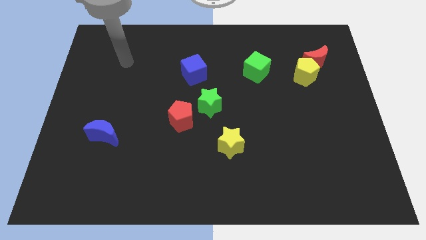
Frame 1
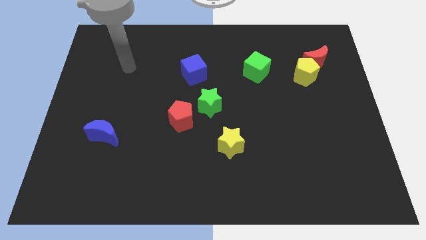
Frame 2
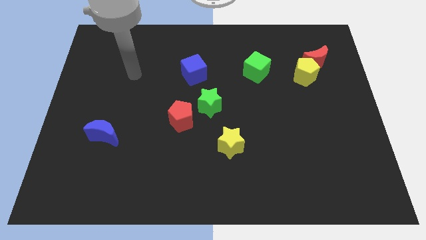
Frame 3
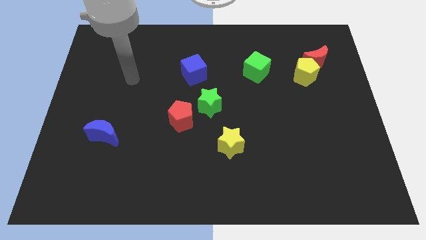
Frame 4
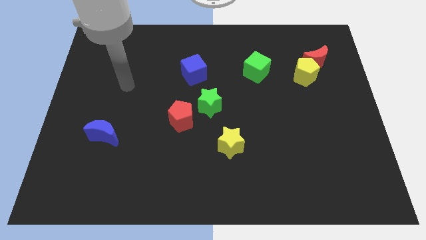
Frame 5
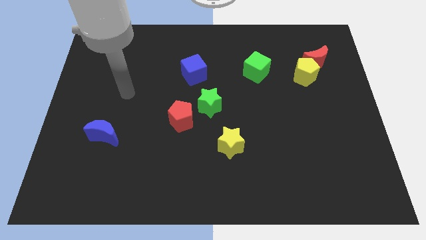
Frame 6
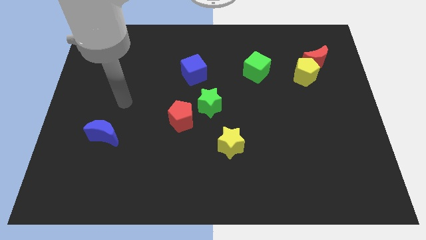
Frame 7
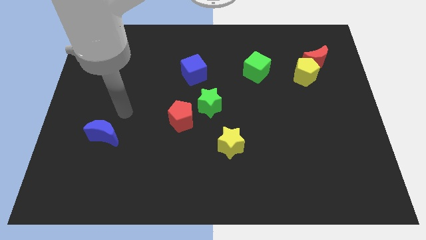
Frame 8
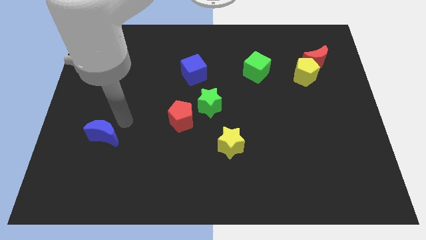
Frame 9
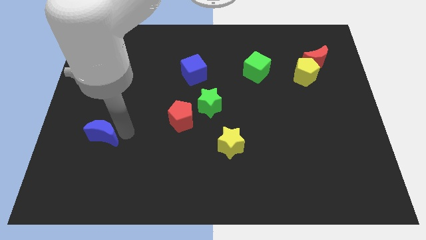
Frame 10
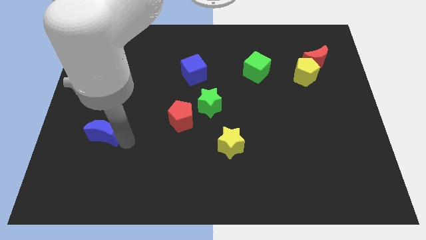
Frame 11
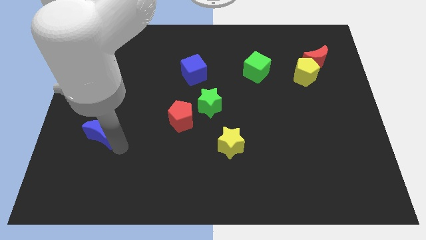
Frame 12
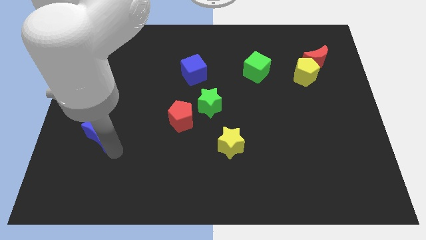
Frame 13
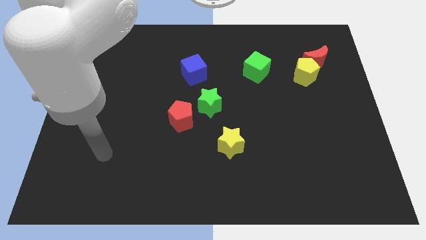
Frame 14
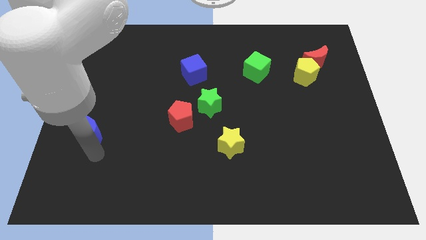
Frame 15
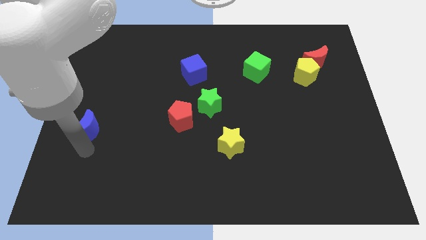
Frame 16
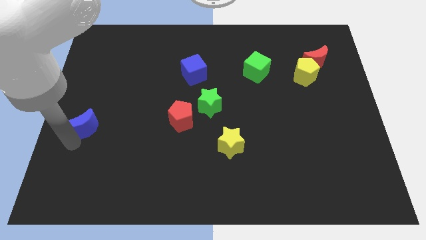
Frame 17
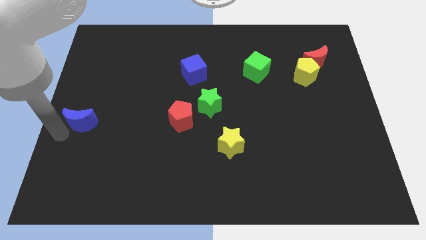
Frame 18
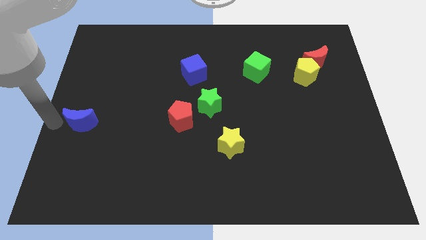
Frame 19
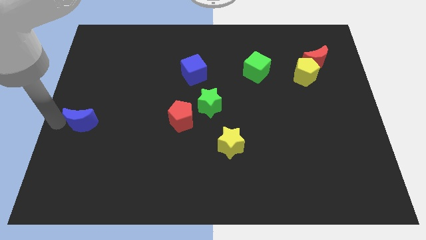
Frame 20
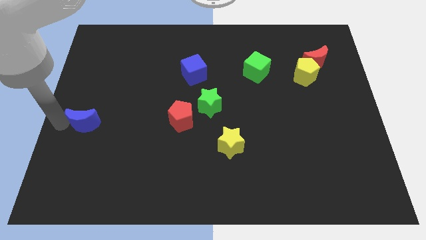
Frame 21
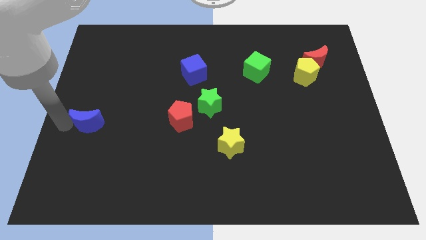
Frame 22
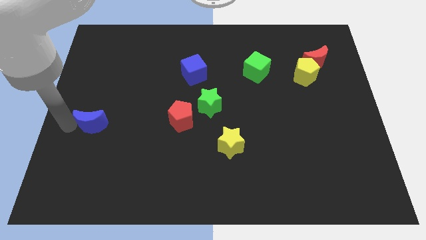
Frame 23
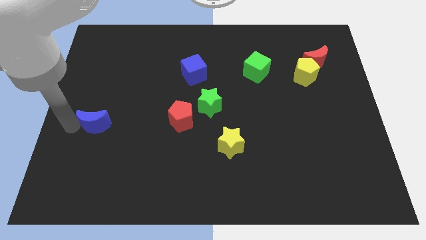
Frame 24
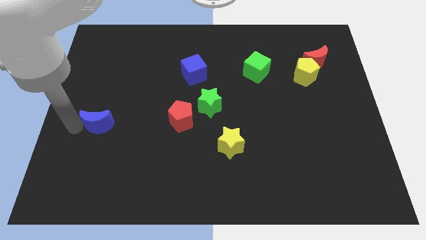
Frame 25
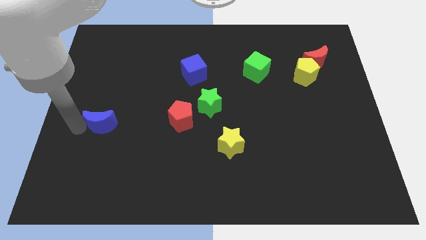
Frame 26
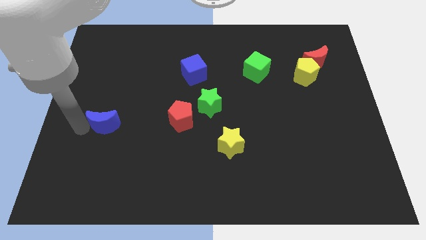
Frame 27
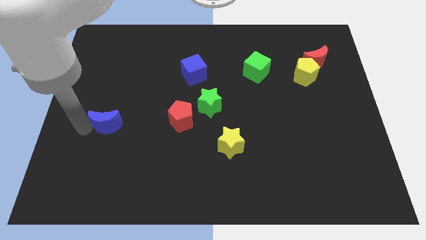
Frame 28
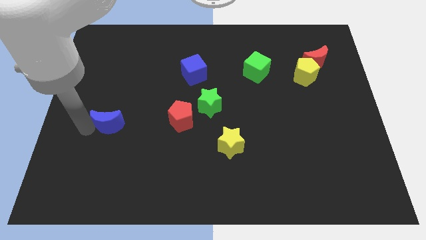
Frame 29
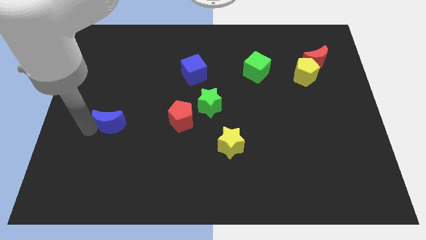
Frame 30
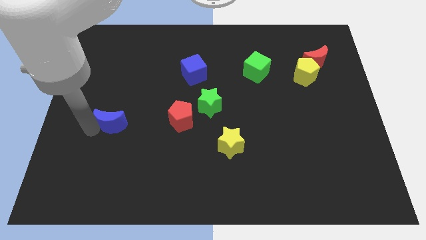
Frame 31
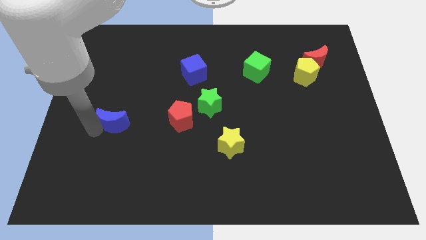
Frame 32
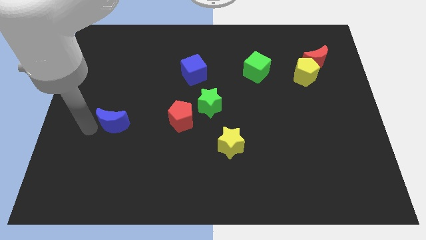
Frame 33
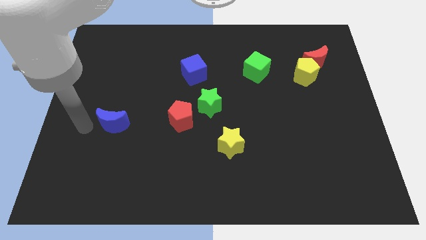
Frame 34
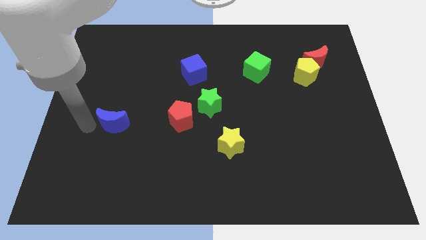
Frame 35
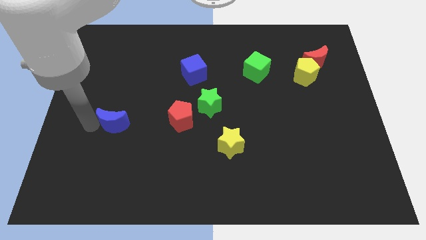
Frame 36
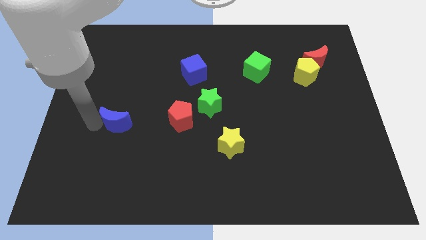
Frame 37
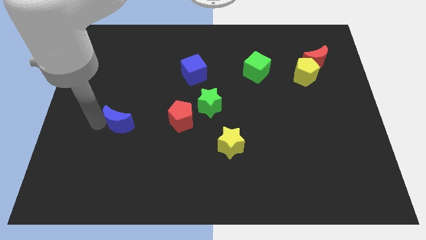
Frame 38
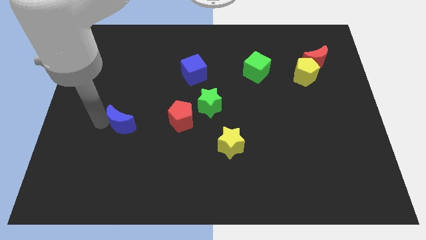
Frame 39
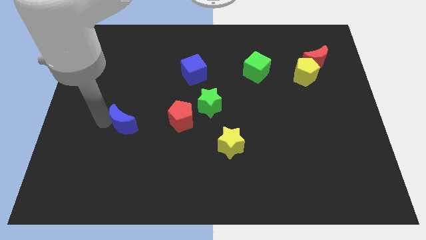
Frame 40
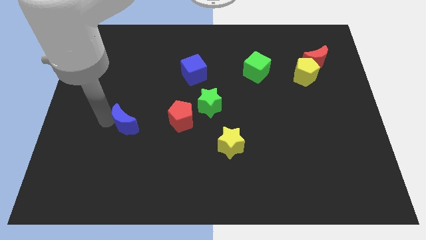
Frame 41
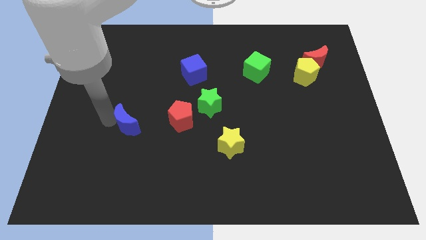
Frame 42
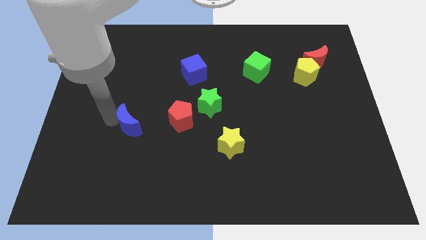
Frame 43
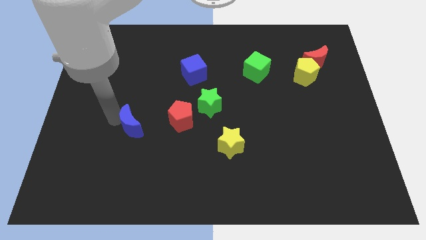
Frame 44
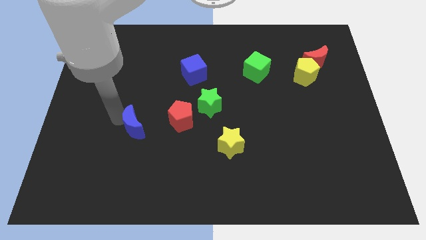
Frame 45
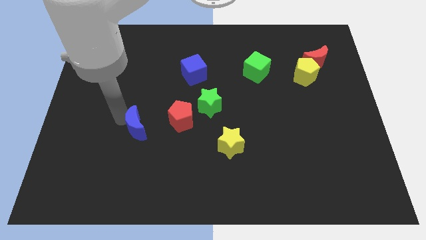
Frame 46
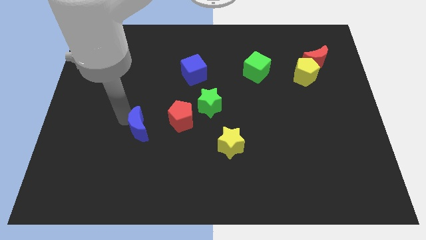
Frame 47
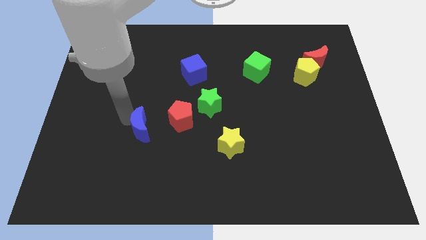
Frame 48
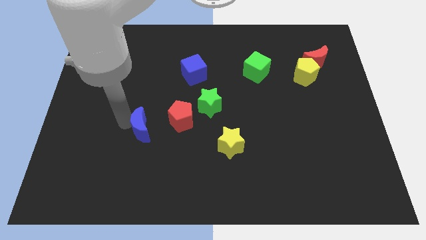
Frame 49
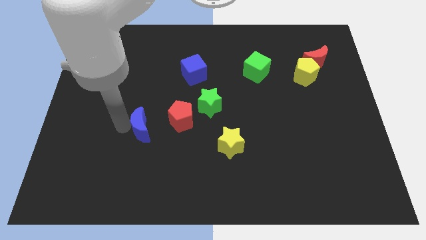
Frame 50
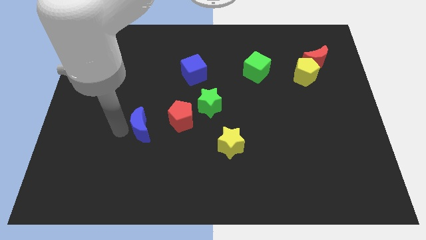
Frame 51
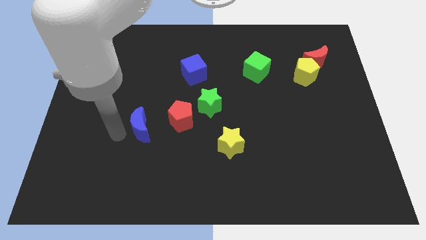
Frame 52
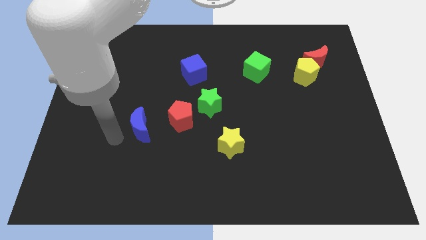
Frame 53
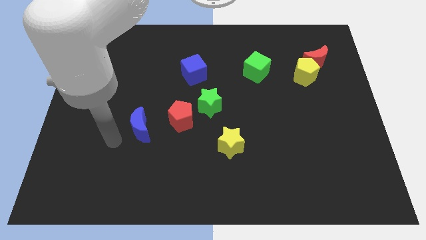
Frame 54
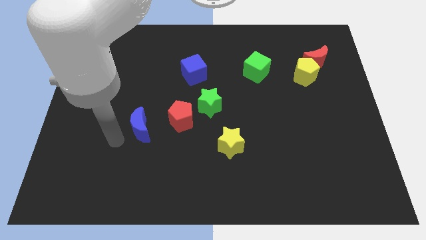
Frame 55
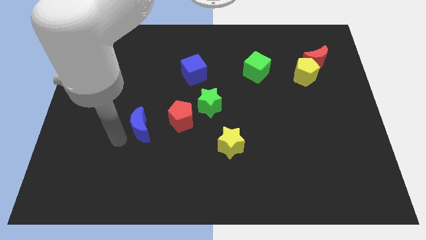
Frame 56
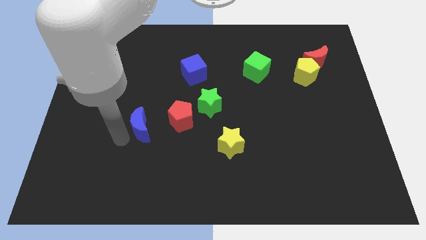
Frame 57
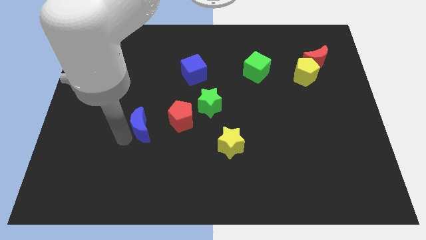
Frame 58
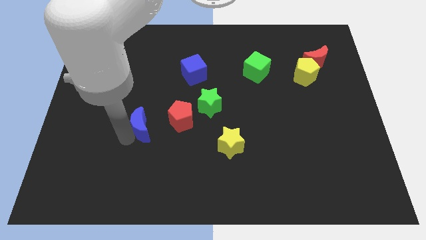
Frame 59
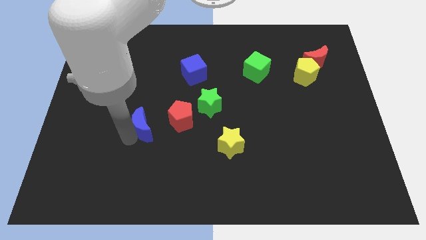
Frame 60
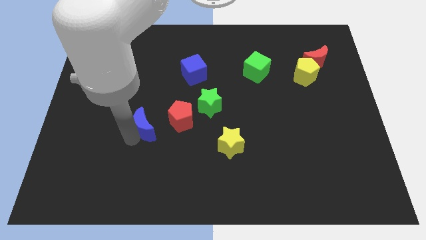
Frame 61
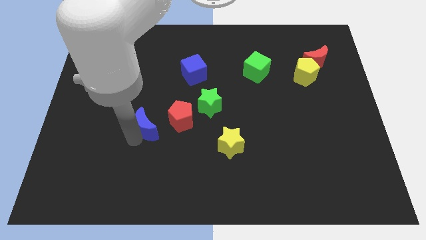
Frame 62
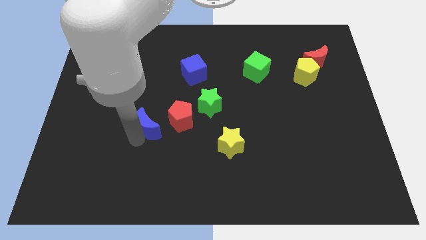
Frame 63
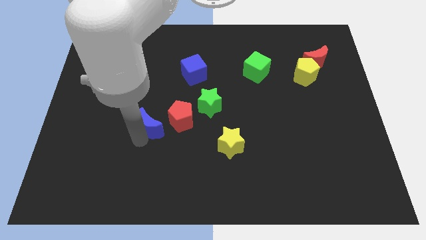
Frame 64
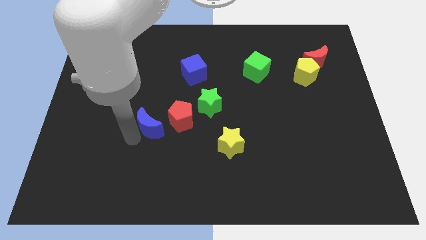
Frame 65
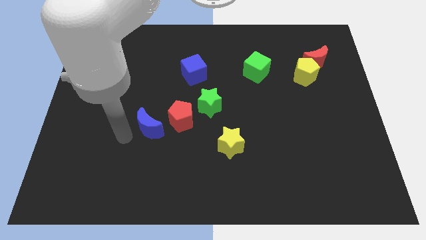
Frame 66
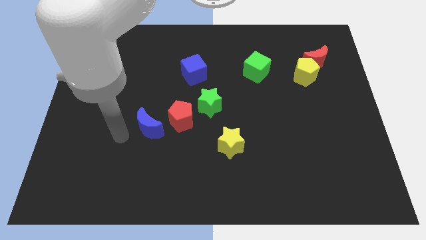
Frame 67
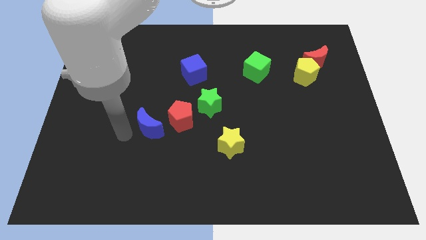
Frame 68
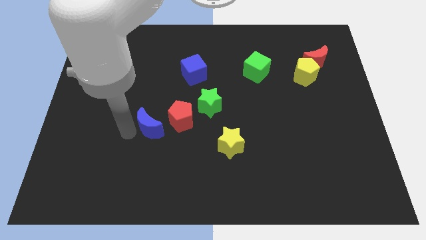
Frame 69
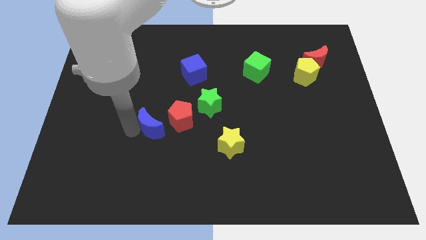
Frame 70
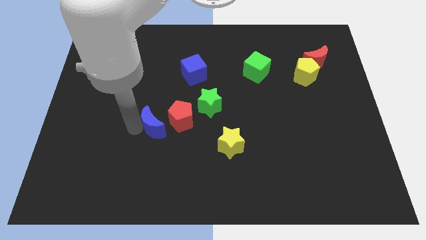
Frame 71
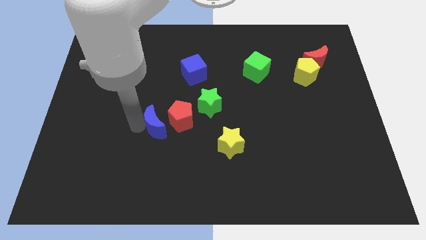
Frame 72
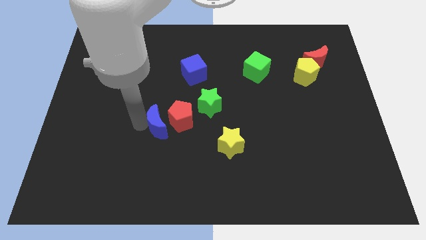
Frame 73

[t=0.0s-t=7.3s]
put the blue moon next to the red pentagon

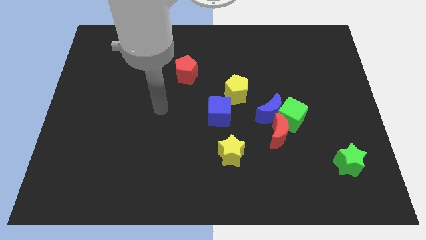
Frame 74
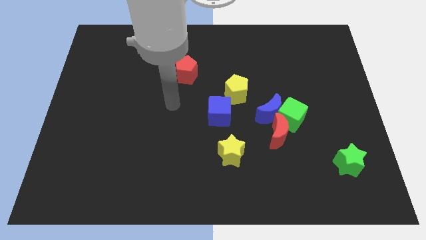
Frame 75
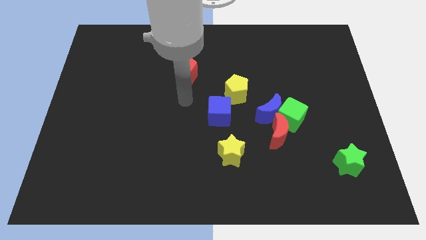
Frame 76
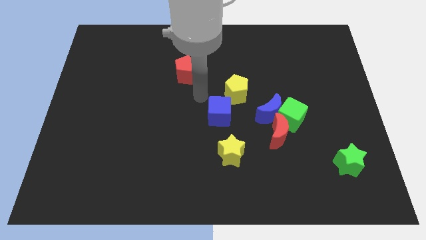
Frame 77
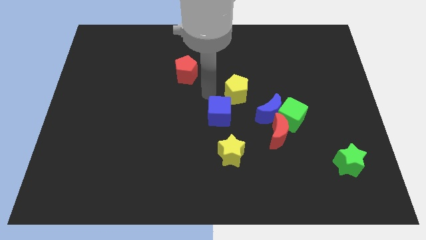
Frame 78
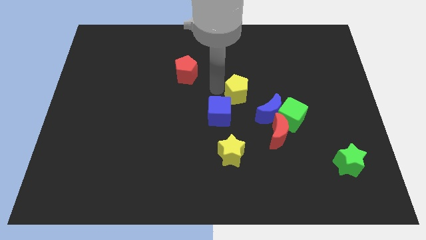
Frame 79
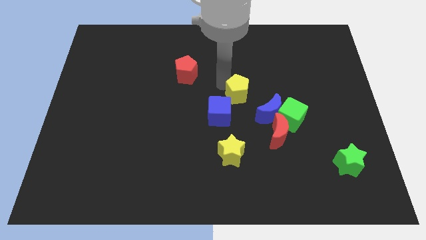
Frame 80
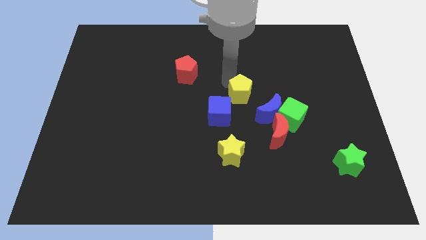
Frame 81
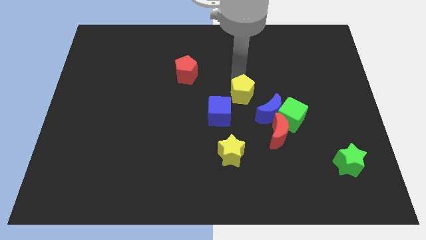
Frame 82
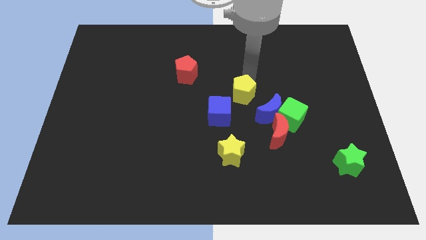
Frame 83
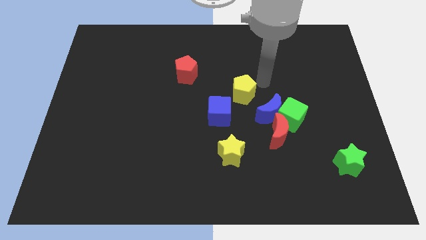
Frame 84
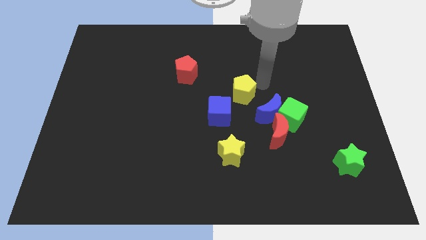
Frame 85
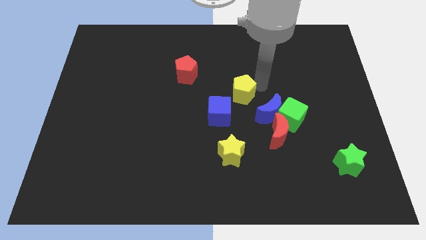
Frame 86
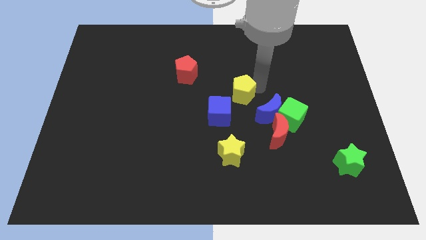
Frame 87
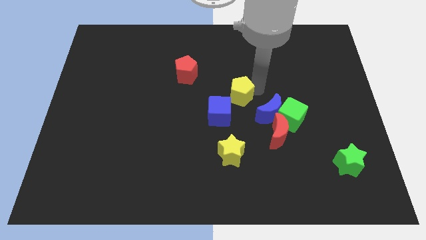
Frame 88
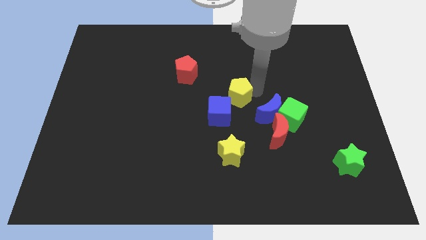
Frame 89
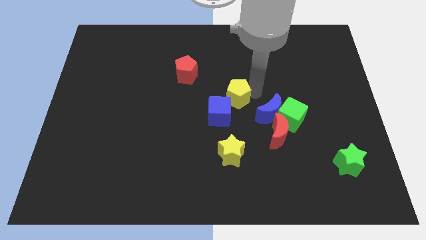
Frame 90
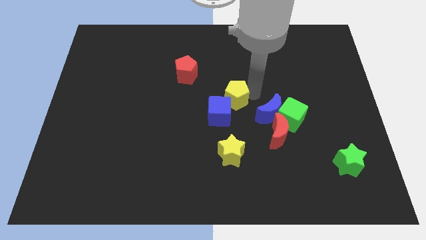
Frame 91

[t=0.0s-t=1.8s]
push the yellow pentagon next to the blue cube
